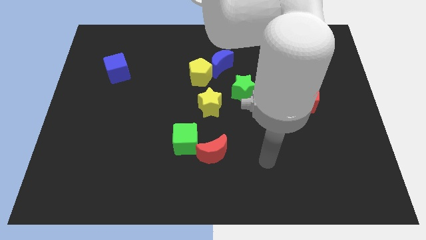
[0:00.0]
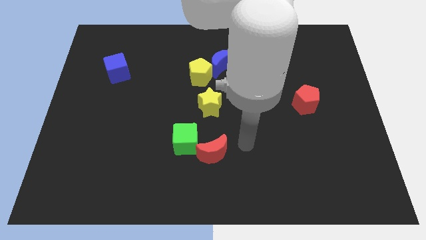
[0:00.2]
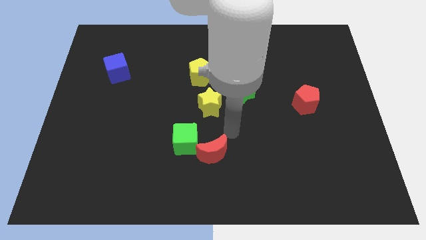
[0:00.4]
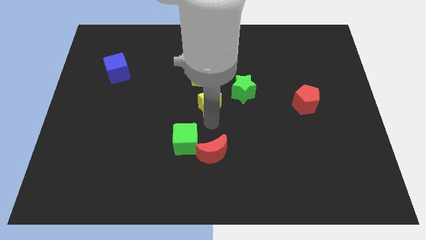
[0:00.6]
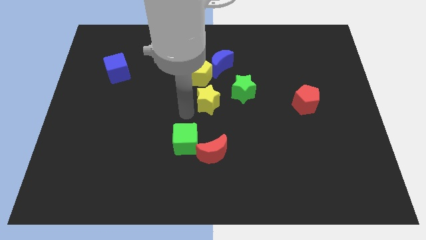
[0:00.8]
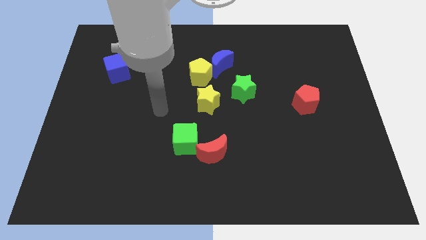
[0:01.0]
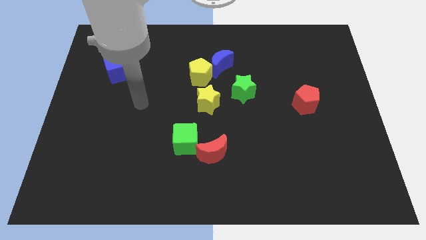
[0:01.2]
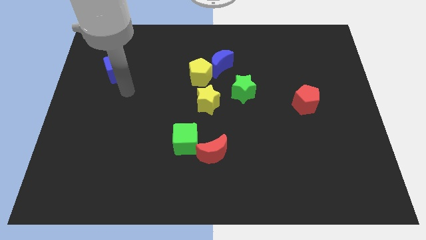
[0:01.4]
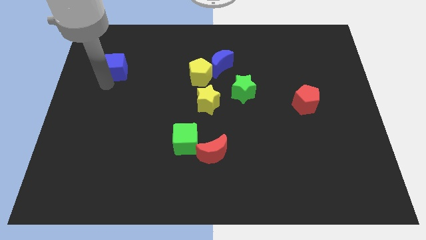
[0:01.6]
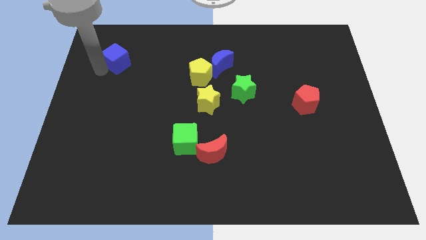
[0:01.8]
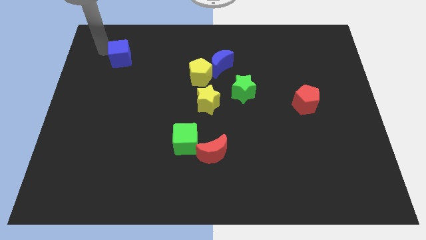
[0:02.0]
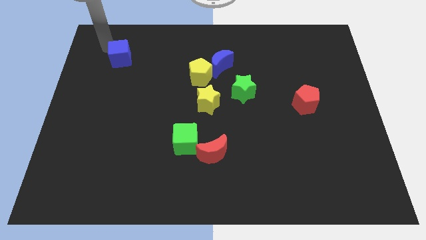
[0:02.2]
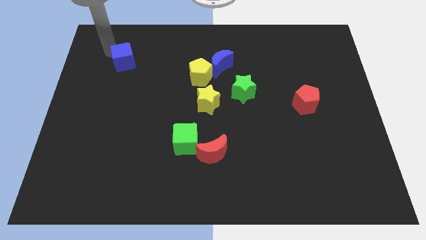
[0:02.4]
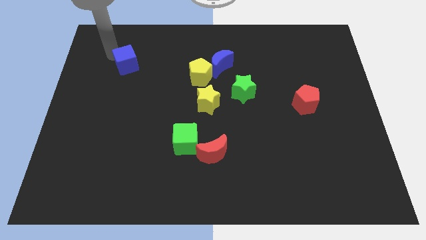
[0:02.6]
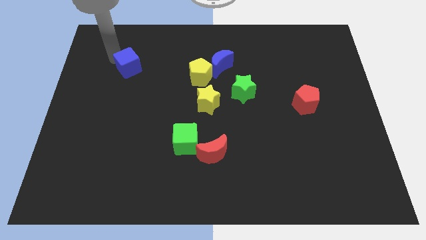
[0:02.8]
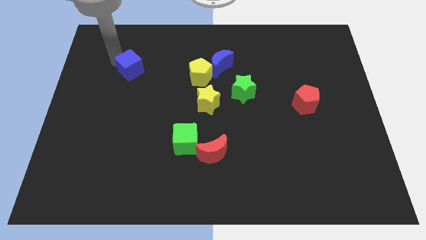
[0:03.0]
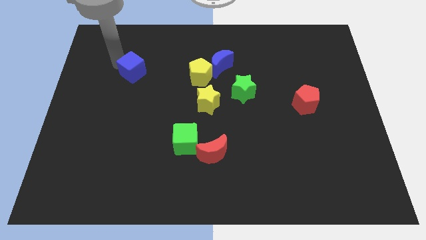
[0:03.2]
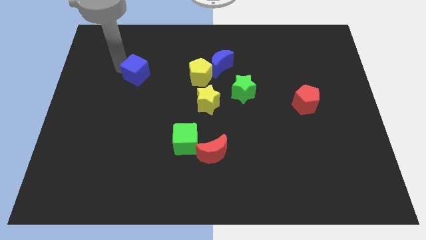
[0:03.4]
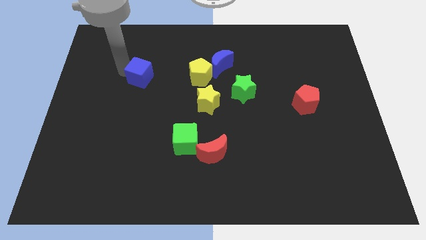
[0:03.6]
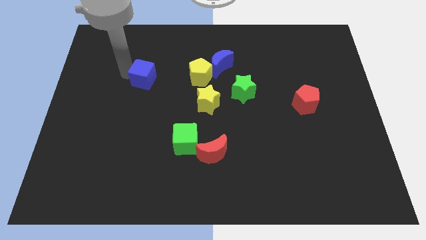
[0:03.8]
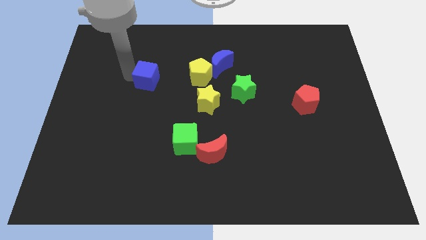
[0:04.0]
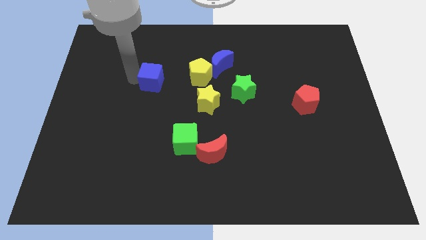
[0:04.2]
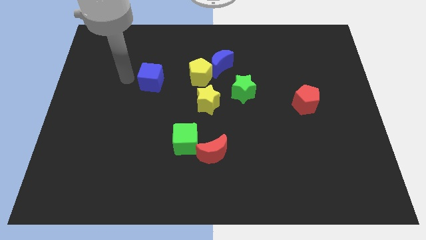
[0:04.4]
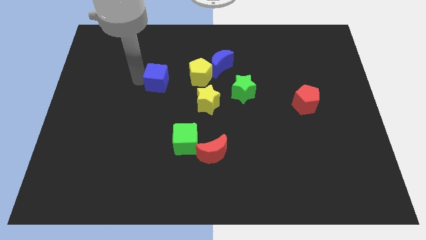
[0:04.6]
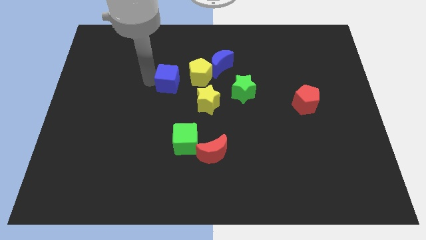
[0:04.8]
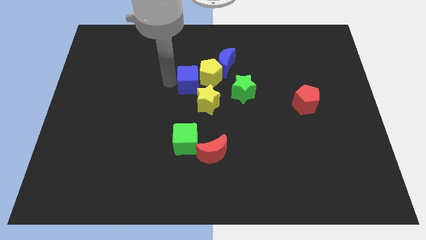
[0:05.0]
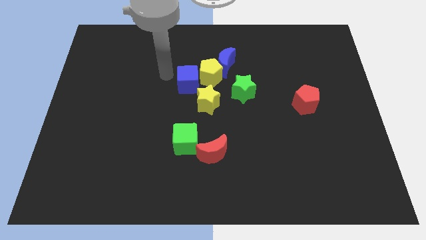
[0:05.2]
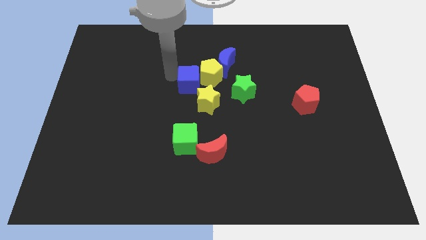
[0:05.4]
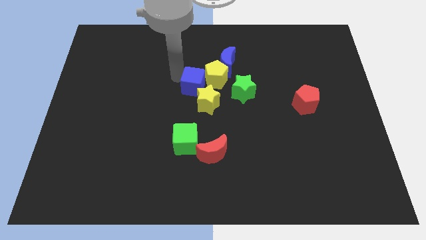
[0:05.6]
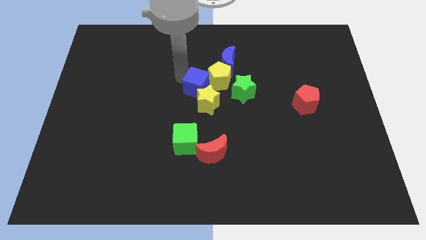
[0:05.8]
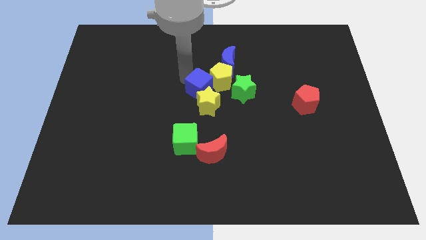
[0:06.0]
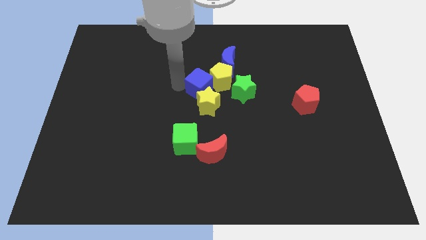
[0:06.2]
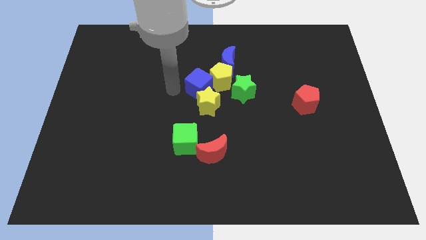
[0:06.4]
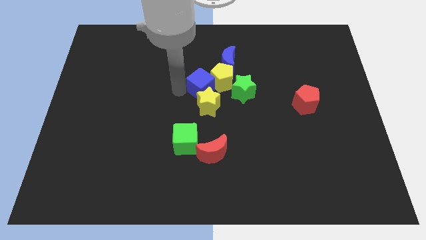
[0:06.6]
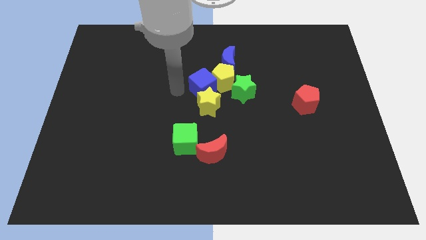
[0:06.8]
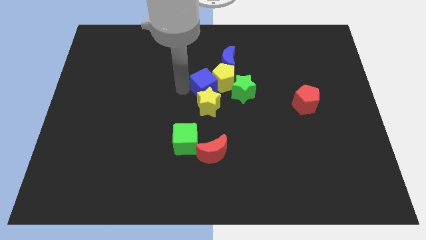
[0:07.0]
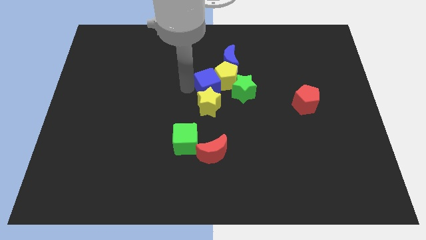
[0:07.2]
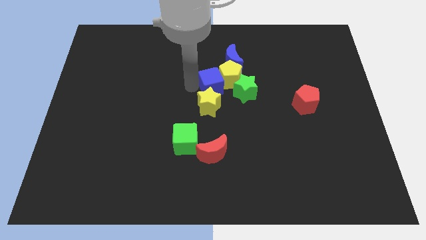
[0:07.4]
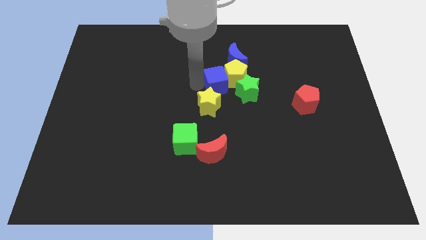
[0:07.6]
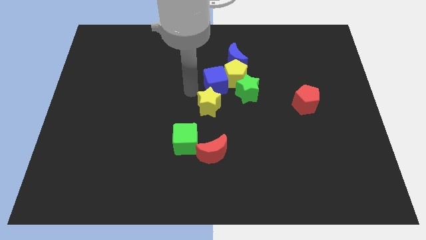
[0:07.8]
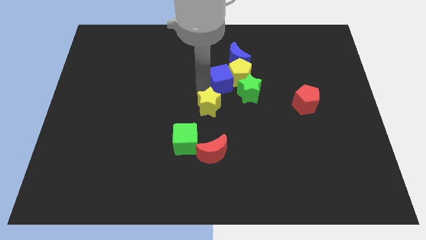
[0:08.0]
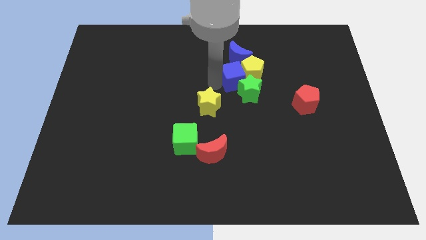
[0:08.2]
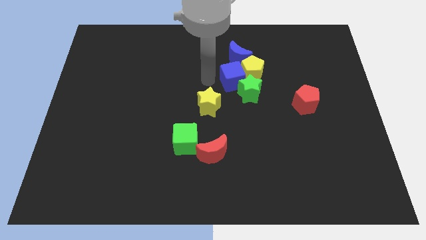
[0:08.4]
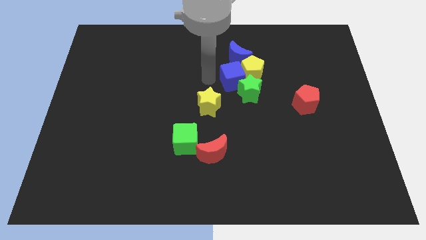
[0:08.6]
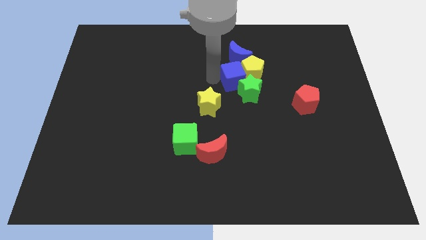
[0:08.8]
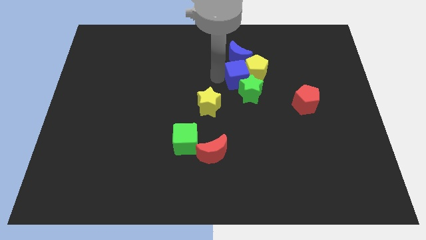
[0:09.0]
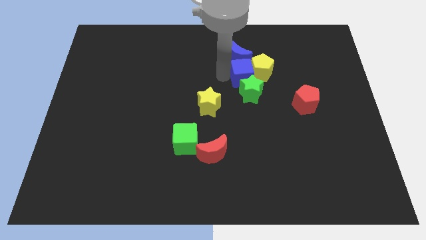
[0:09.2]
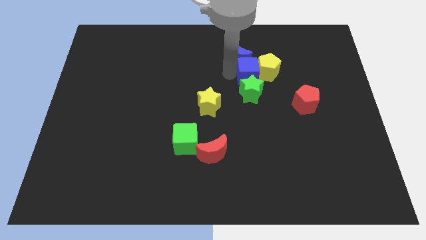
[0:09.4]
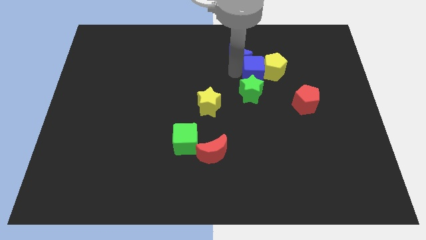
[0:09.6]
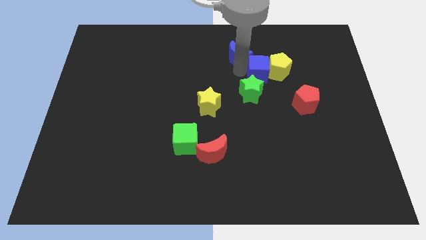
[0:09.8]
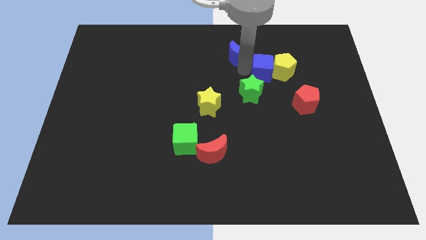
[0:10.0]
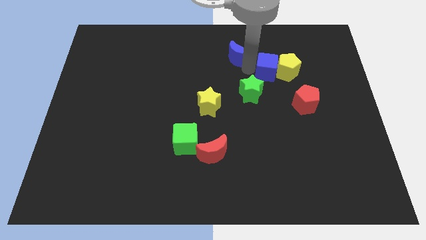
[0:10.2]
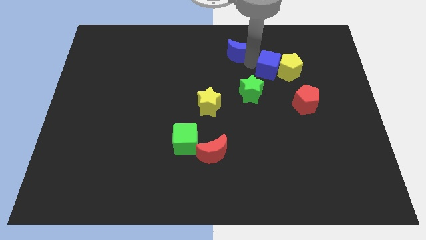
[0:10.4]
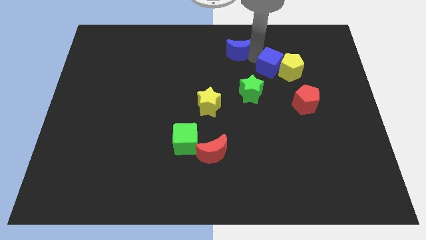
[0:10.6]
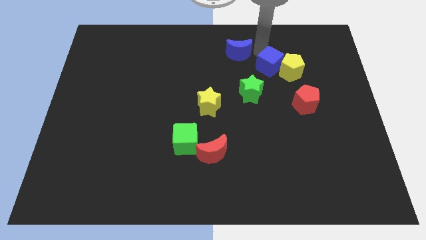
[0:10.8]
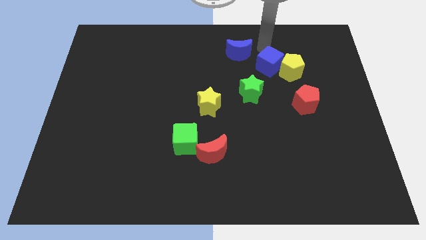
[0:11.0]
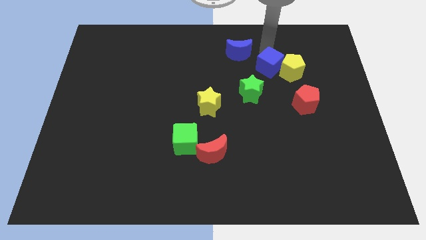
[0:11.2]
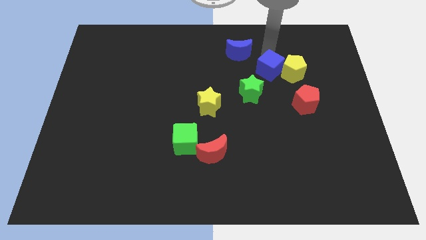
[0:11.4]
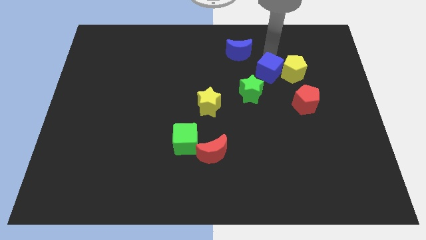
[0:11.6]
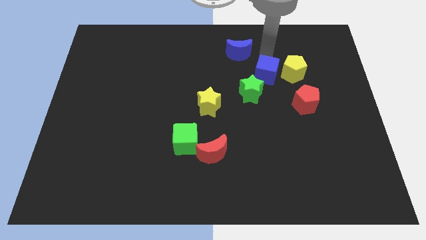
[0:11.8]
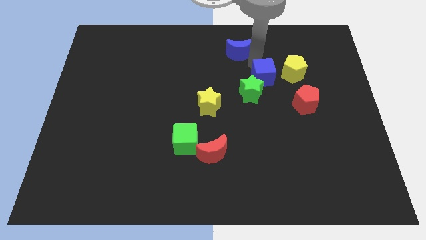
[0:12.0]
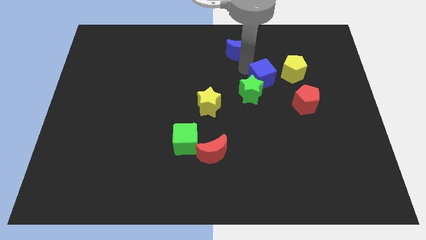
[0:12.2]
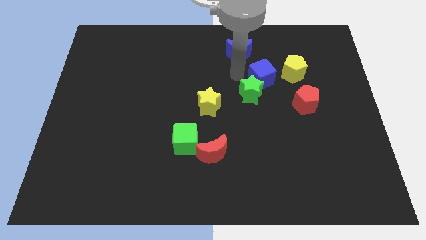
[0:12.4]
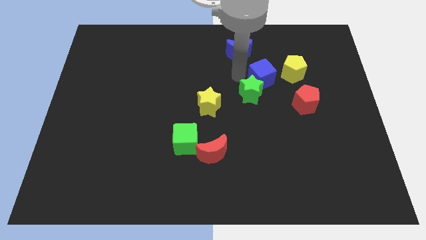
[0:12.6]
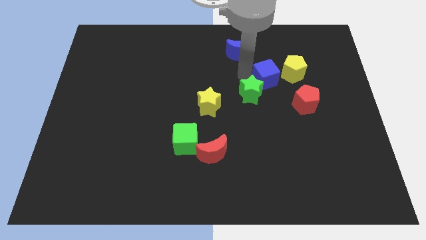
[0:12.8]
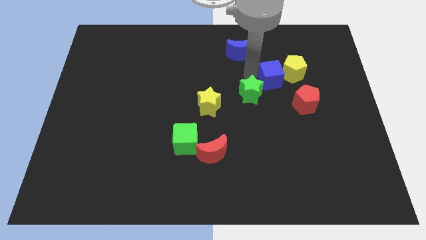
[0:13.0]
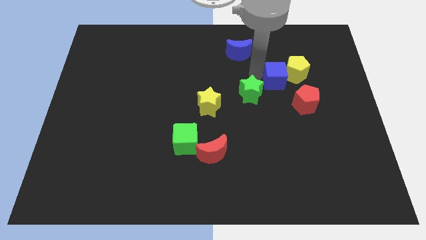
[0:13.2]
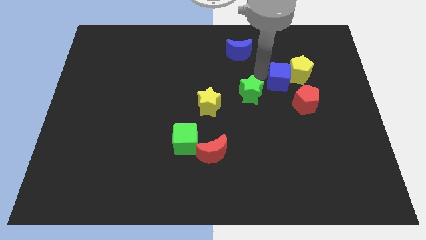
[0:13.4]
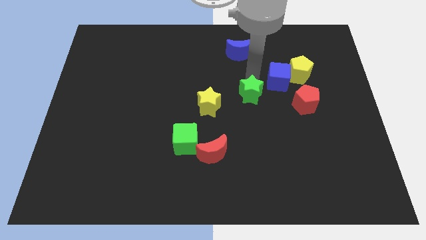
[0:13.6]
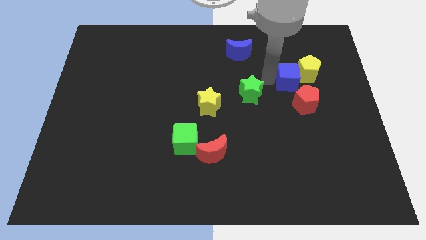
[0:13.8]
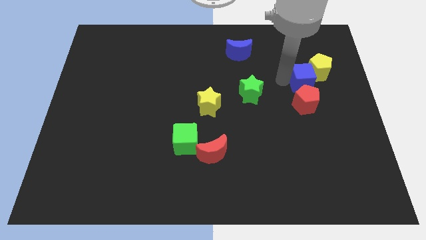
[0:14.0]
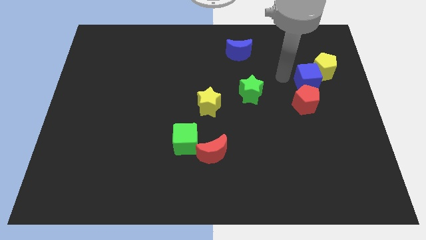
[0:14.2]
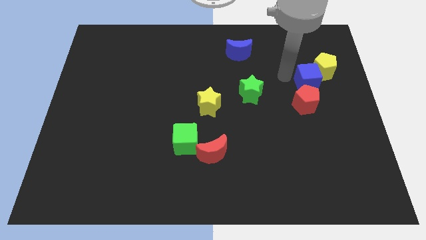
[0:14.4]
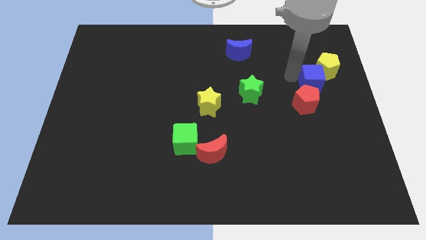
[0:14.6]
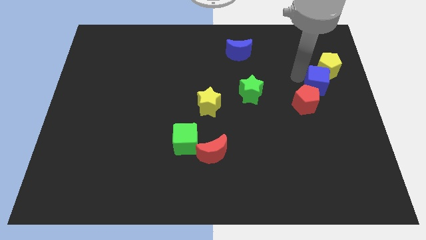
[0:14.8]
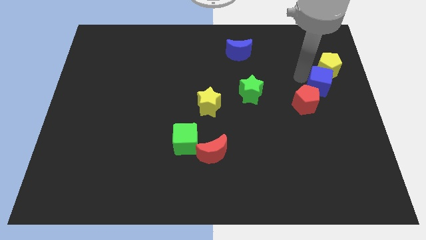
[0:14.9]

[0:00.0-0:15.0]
move the blue cube to the right side
